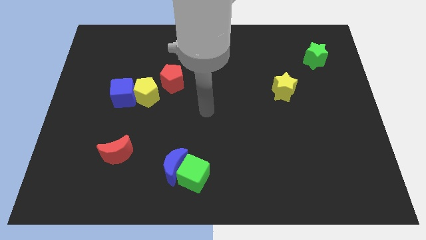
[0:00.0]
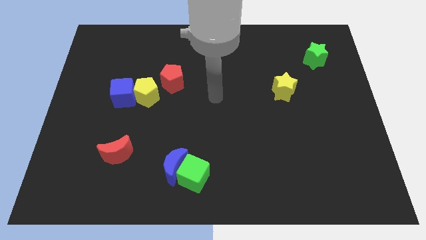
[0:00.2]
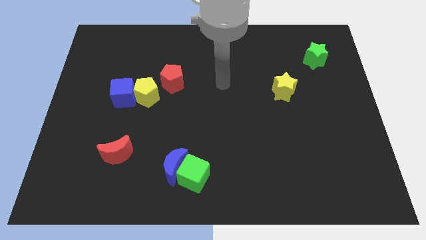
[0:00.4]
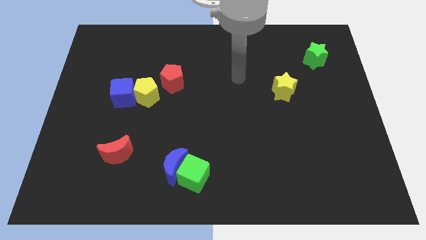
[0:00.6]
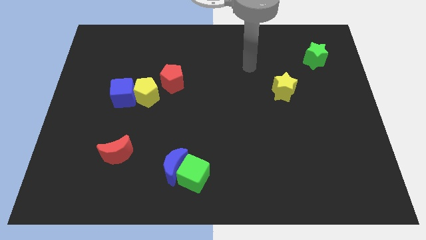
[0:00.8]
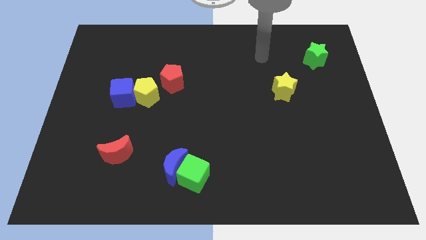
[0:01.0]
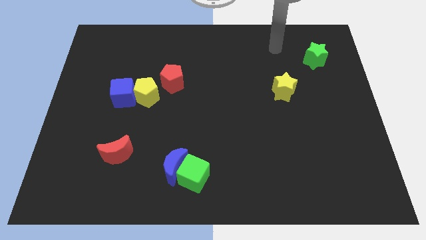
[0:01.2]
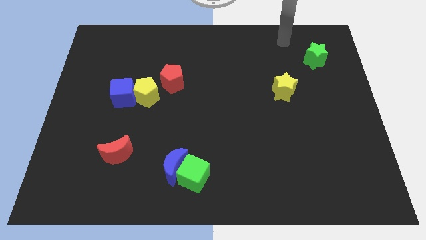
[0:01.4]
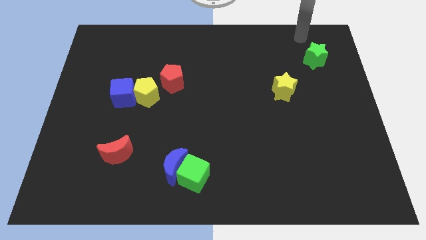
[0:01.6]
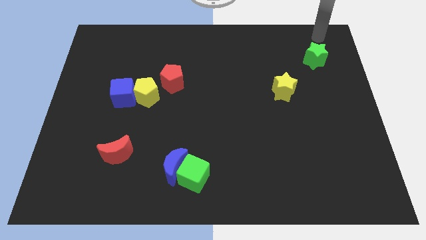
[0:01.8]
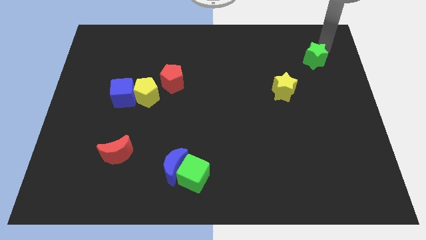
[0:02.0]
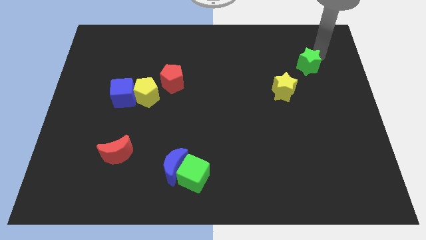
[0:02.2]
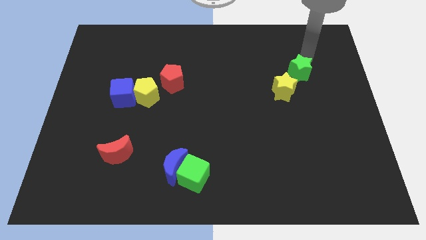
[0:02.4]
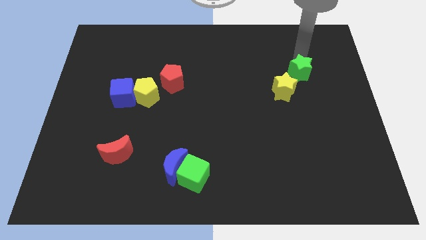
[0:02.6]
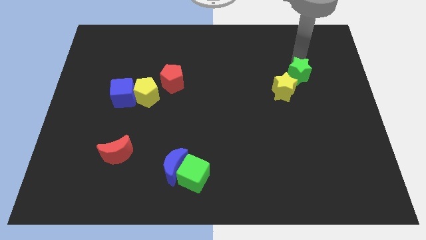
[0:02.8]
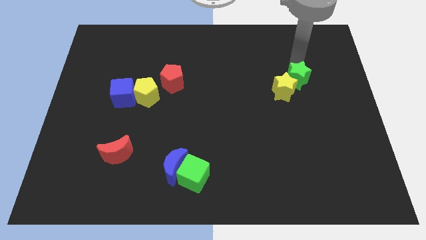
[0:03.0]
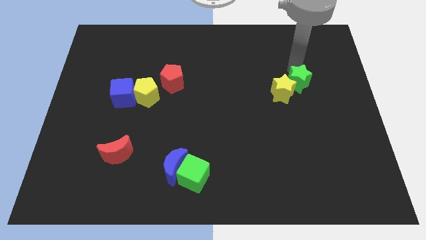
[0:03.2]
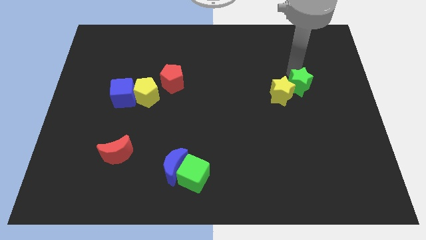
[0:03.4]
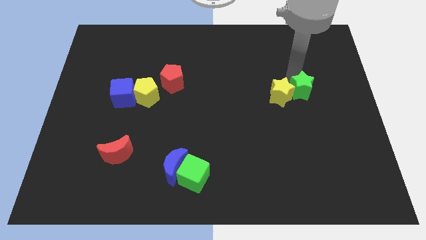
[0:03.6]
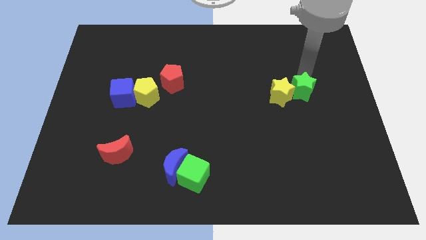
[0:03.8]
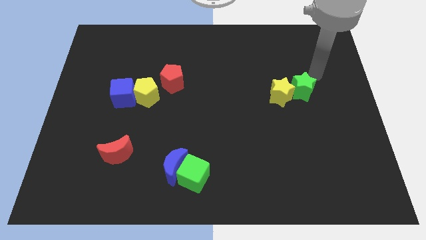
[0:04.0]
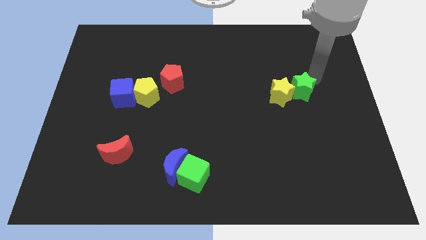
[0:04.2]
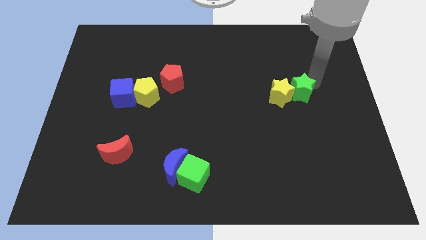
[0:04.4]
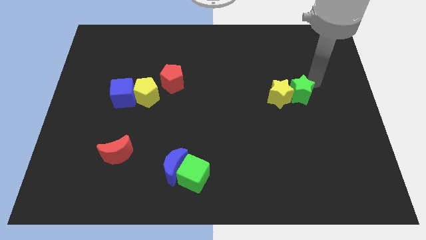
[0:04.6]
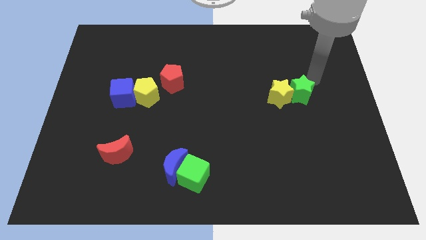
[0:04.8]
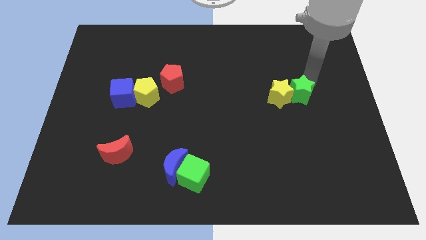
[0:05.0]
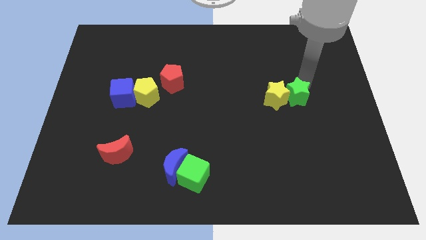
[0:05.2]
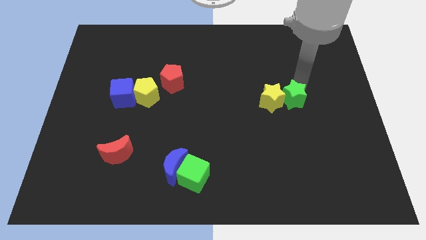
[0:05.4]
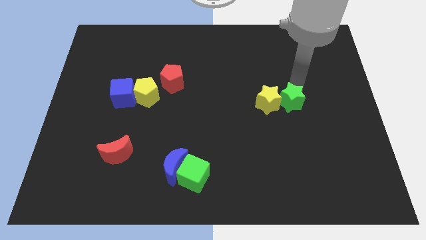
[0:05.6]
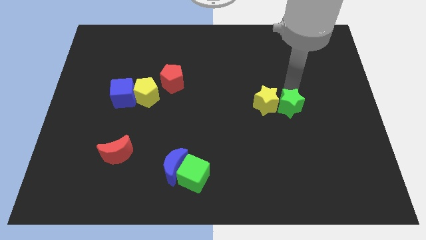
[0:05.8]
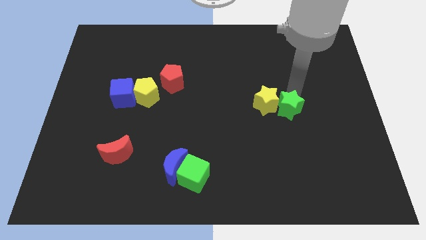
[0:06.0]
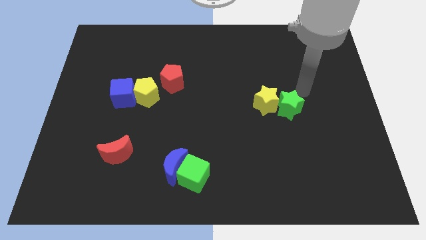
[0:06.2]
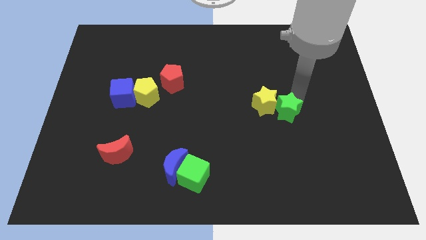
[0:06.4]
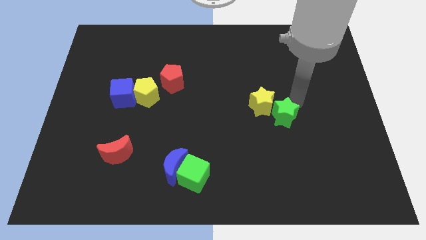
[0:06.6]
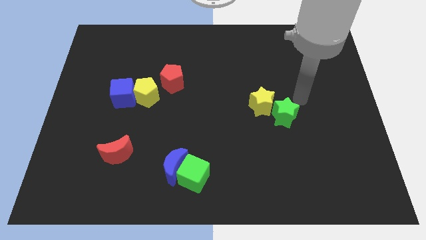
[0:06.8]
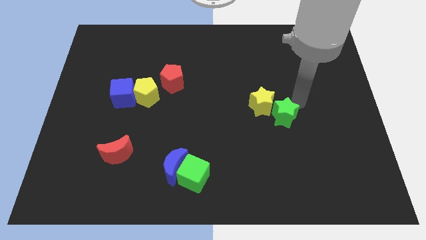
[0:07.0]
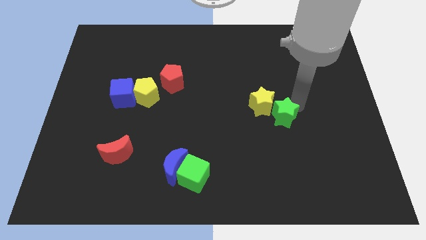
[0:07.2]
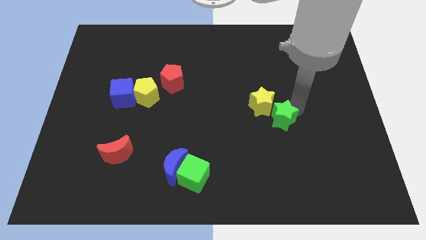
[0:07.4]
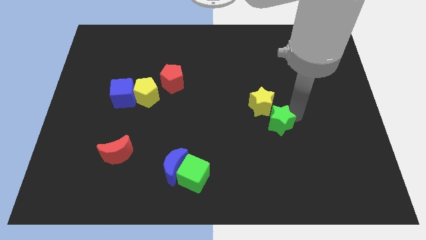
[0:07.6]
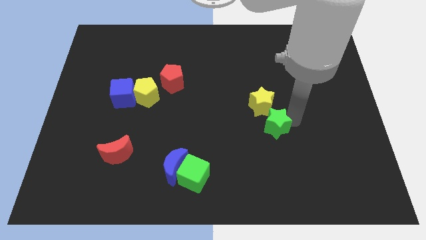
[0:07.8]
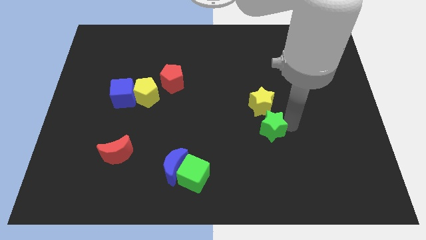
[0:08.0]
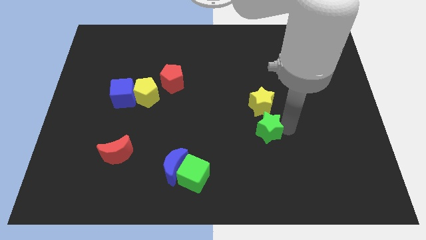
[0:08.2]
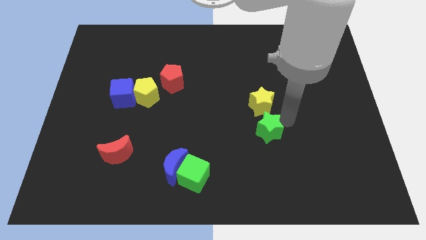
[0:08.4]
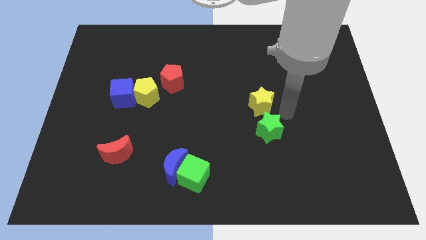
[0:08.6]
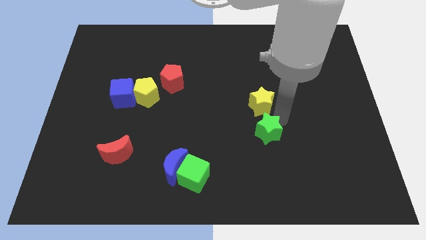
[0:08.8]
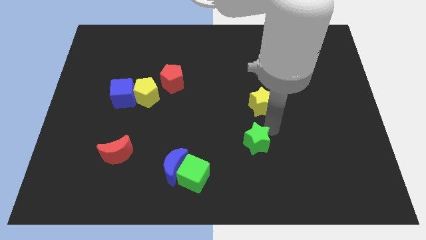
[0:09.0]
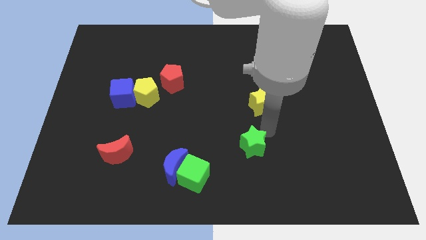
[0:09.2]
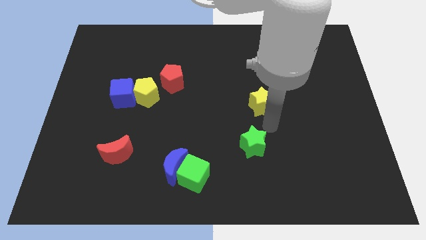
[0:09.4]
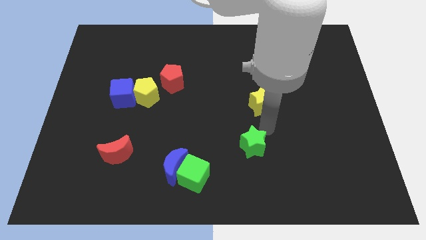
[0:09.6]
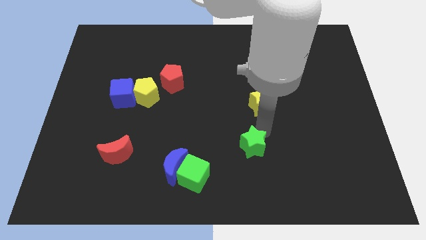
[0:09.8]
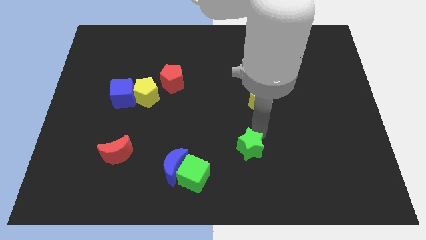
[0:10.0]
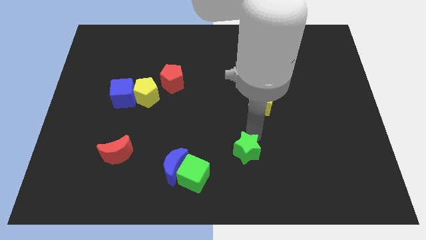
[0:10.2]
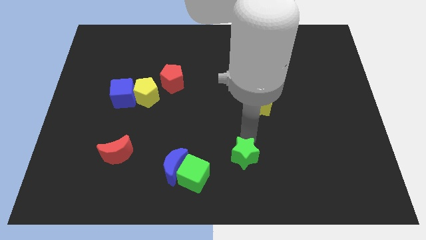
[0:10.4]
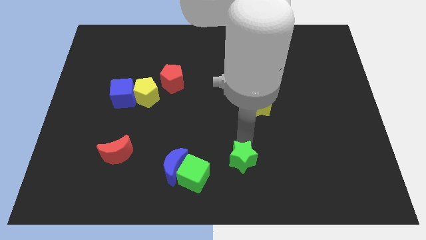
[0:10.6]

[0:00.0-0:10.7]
slide the green star to the bottom
